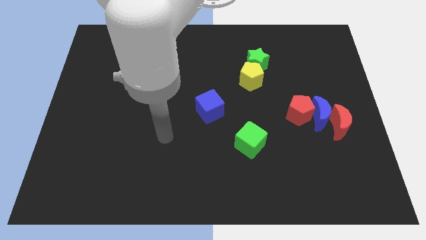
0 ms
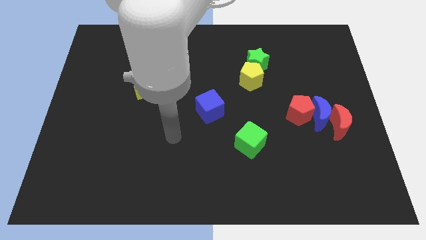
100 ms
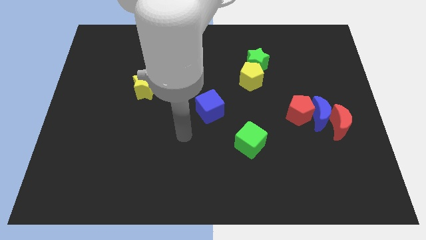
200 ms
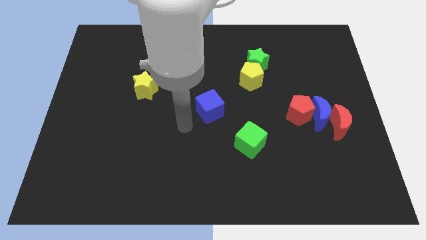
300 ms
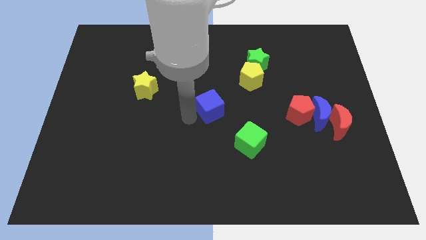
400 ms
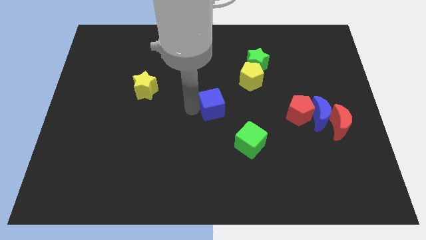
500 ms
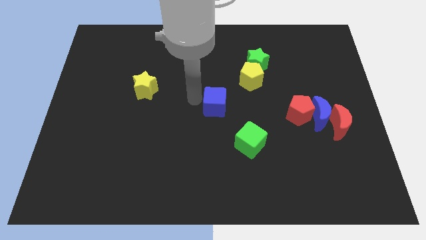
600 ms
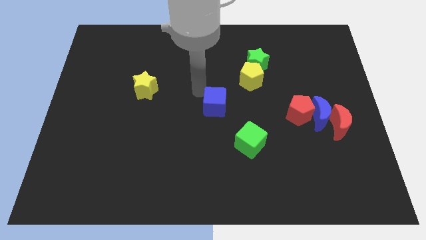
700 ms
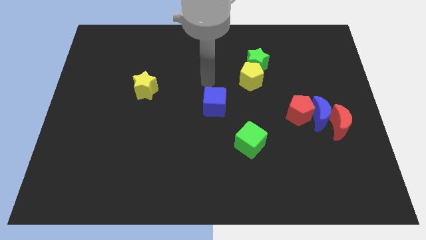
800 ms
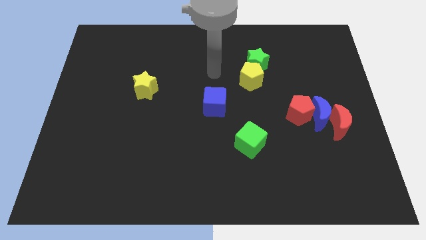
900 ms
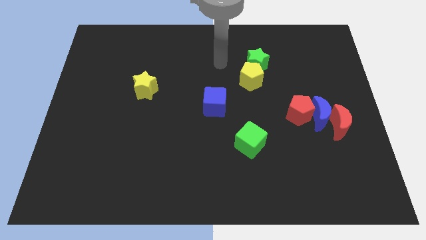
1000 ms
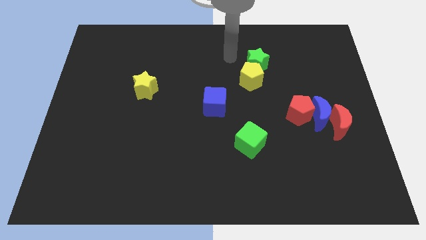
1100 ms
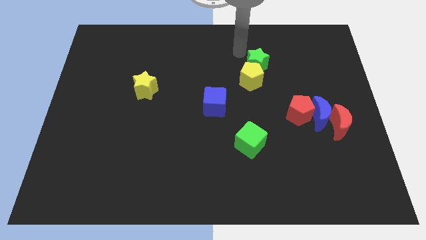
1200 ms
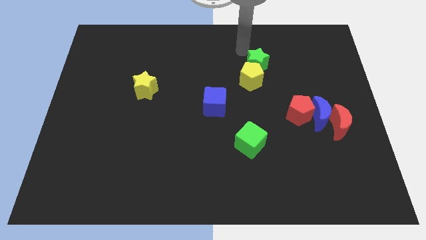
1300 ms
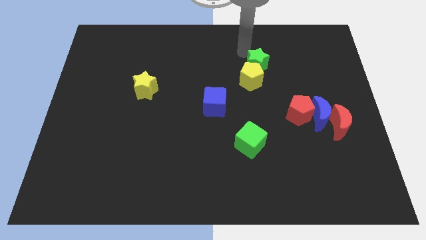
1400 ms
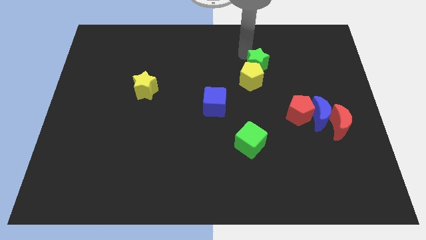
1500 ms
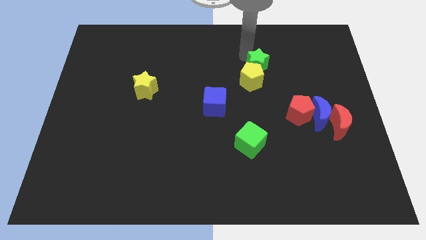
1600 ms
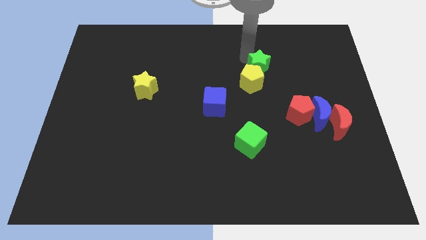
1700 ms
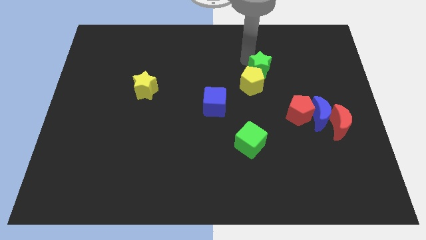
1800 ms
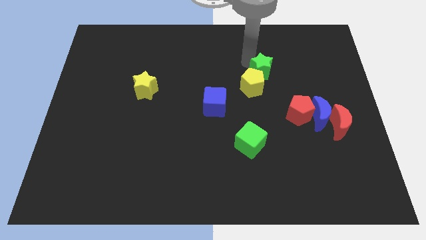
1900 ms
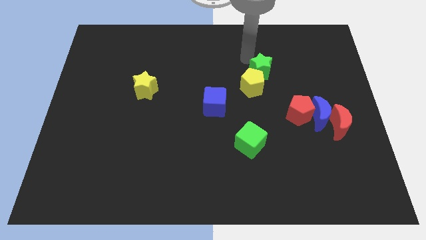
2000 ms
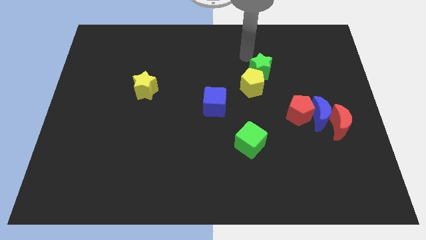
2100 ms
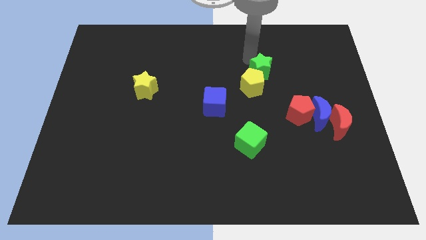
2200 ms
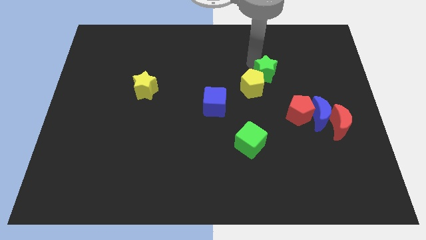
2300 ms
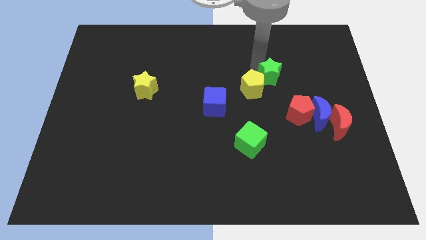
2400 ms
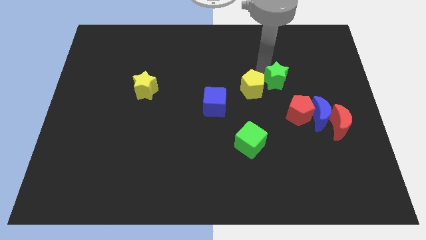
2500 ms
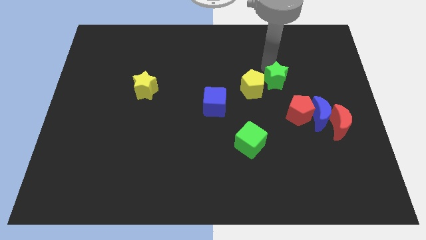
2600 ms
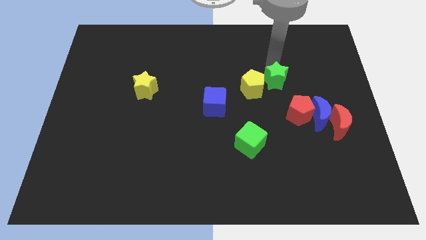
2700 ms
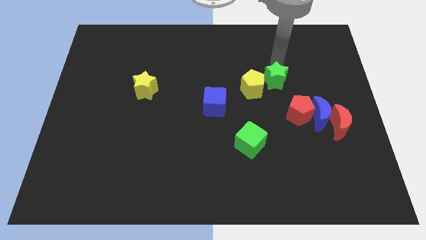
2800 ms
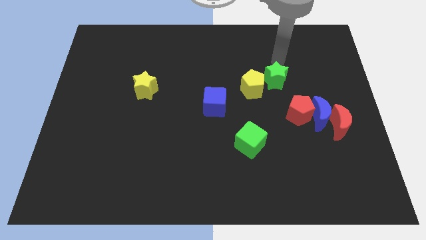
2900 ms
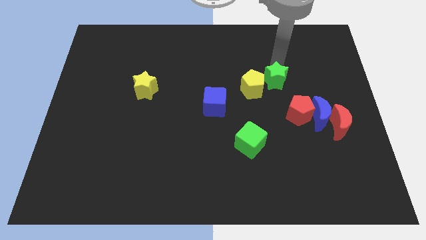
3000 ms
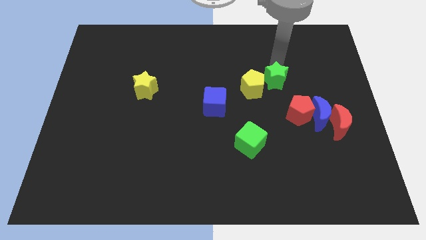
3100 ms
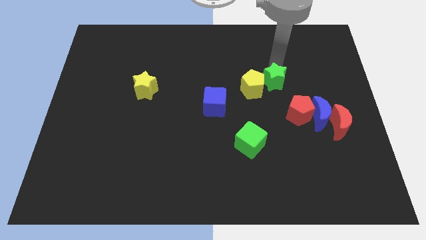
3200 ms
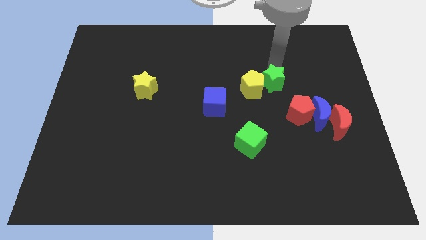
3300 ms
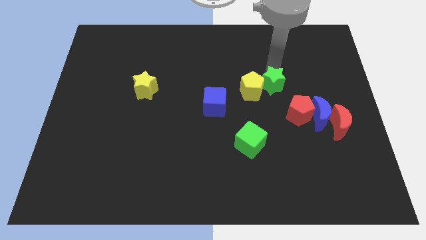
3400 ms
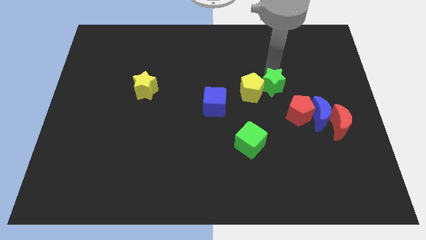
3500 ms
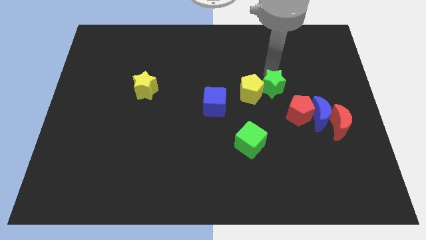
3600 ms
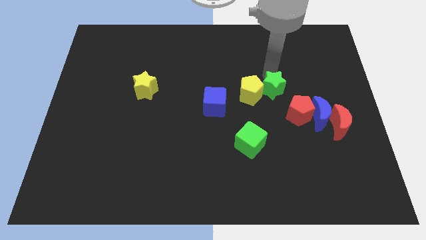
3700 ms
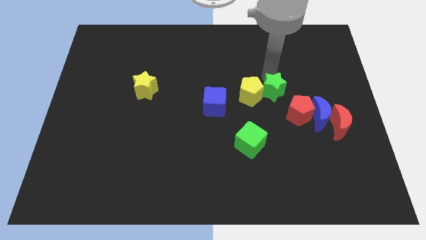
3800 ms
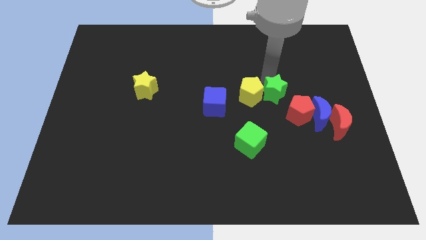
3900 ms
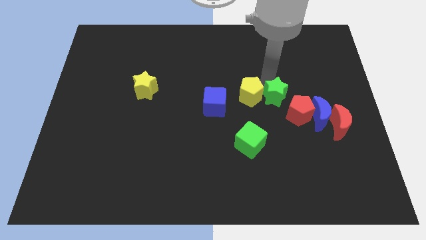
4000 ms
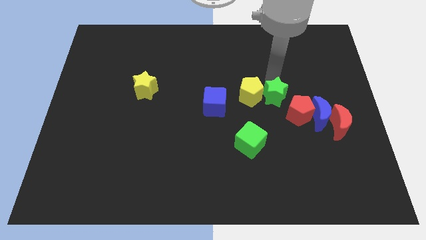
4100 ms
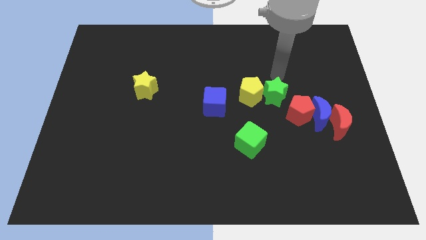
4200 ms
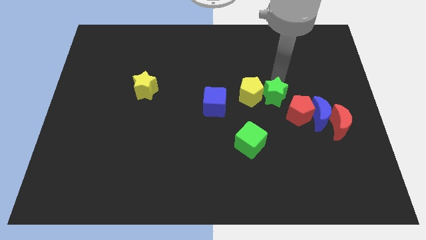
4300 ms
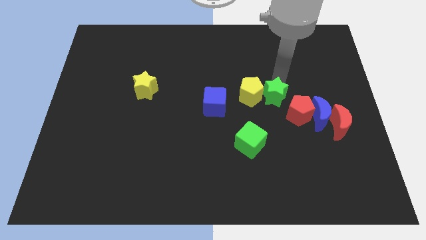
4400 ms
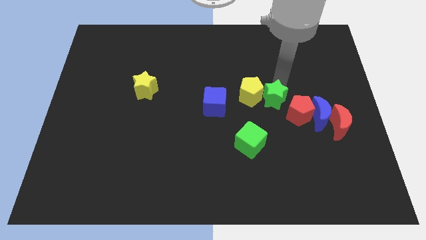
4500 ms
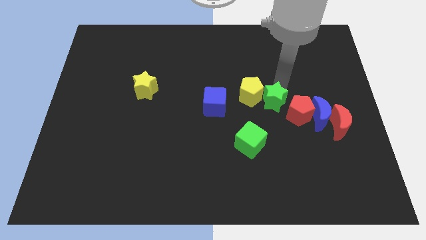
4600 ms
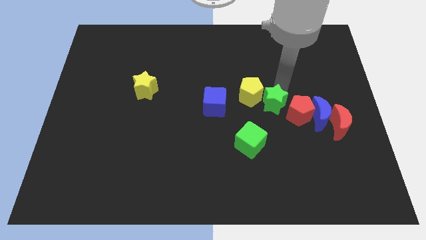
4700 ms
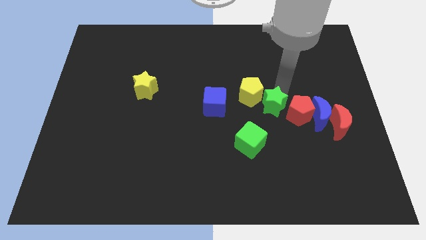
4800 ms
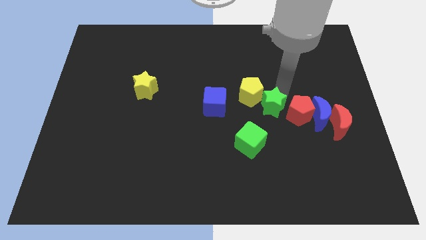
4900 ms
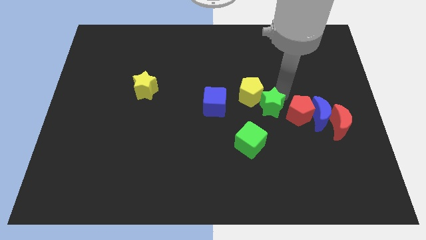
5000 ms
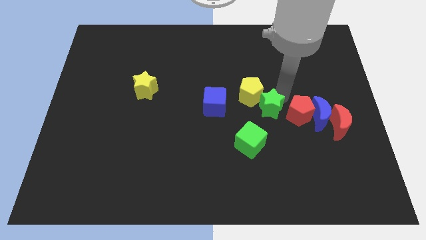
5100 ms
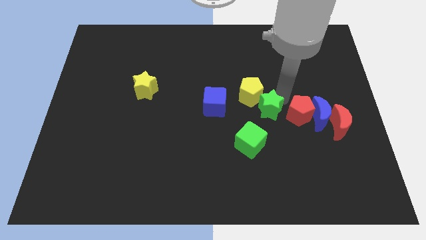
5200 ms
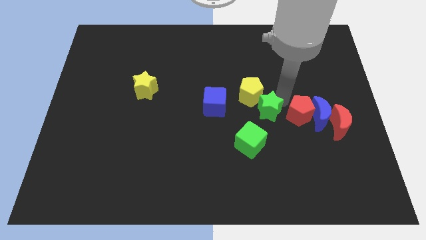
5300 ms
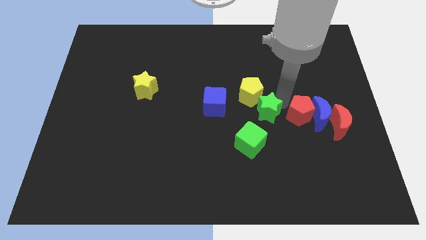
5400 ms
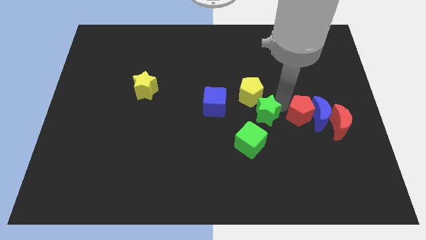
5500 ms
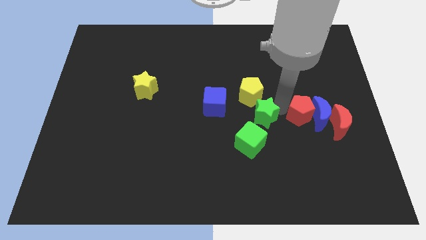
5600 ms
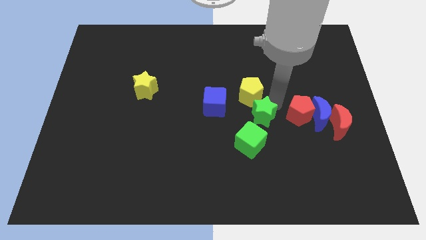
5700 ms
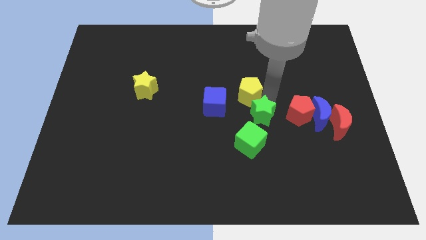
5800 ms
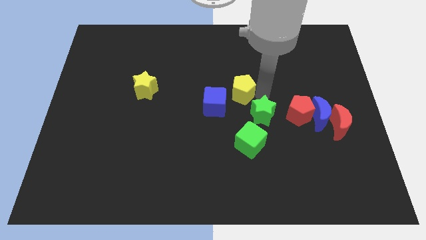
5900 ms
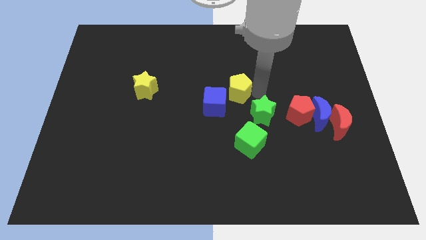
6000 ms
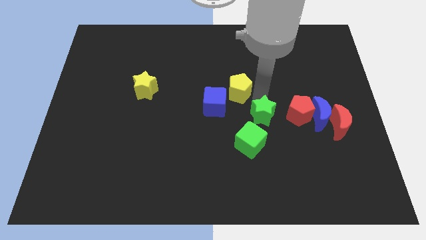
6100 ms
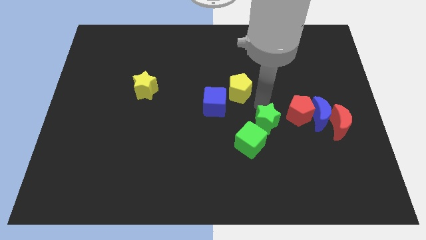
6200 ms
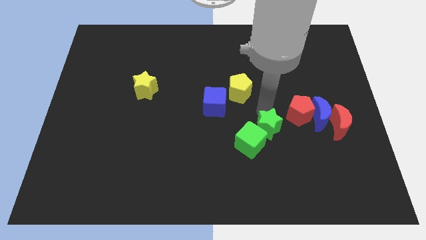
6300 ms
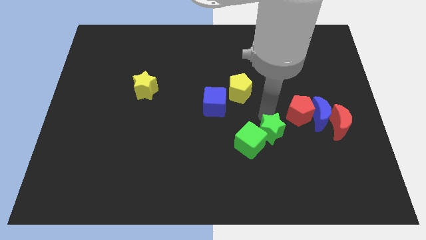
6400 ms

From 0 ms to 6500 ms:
slide the green star downwards

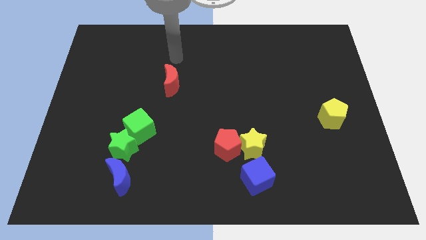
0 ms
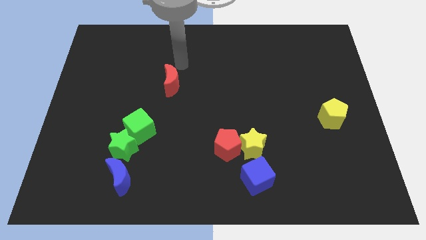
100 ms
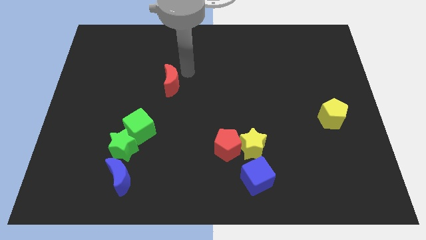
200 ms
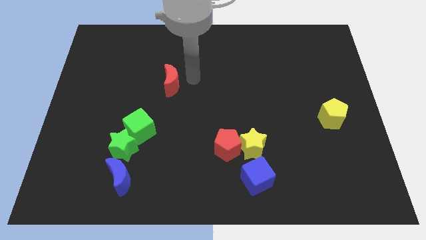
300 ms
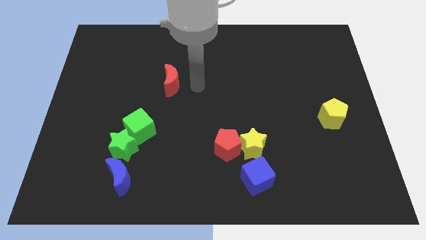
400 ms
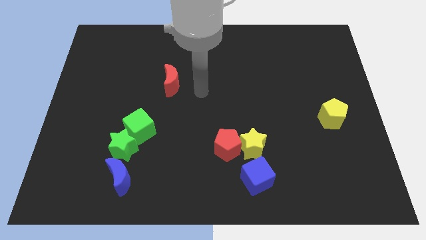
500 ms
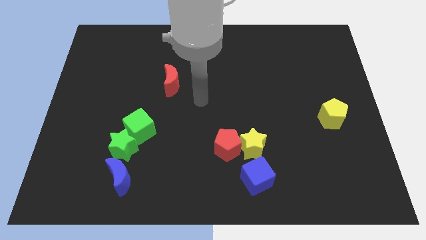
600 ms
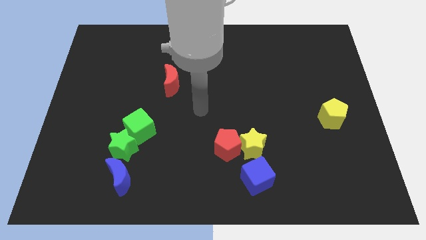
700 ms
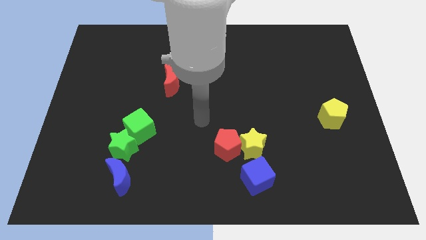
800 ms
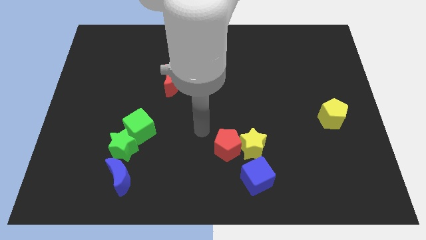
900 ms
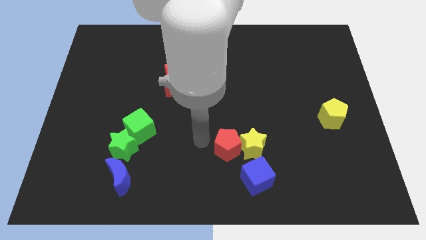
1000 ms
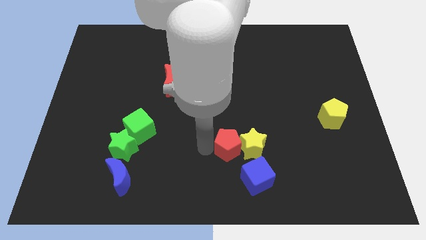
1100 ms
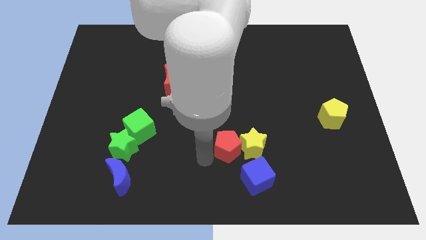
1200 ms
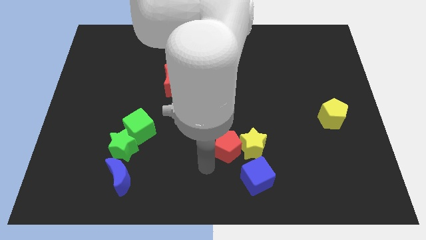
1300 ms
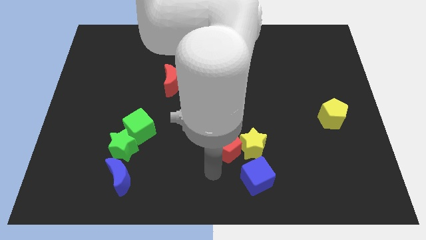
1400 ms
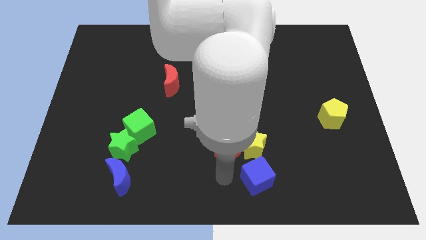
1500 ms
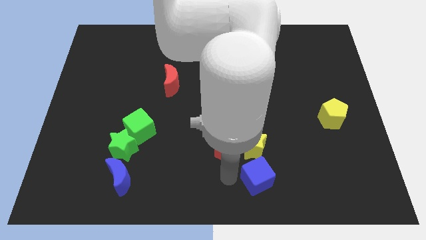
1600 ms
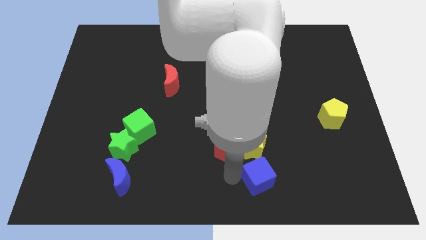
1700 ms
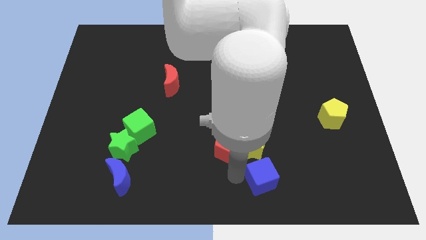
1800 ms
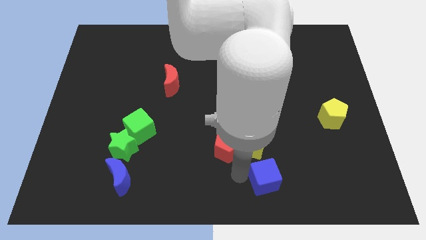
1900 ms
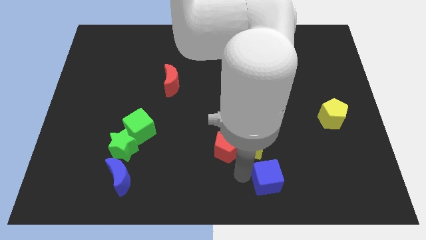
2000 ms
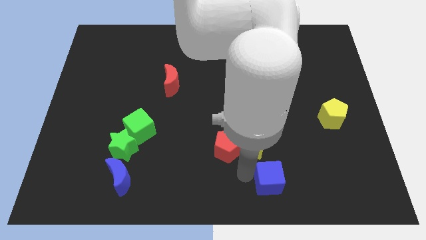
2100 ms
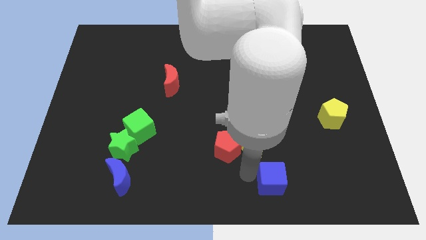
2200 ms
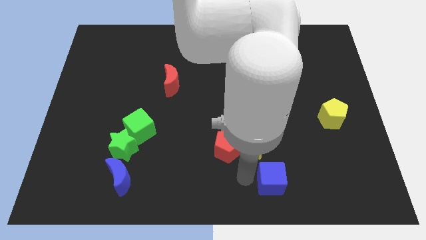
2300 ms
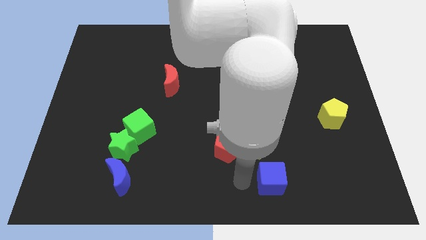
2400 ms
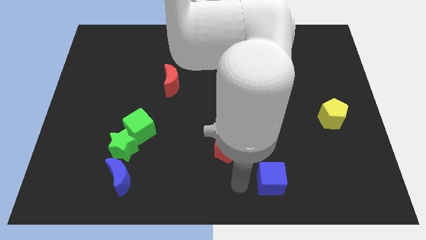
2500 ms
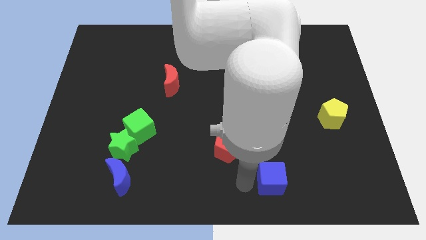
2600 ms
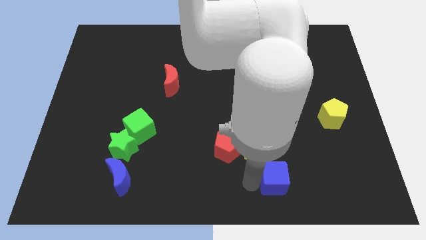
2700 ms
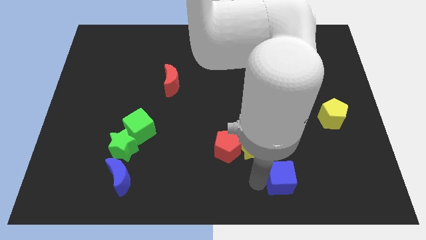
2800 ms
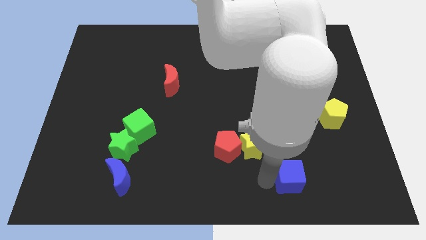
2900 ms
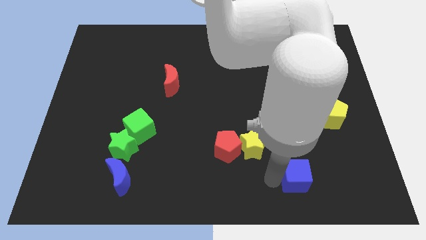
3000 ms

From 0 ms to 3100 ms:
push the blue cube slightly to the right
